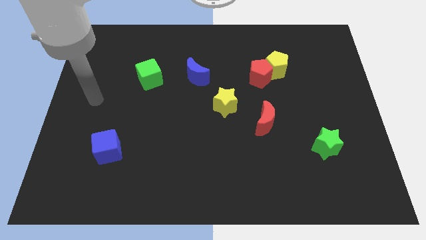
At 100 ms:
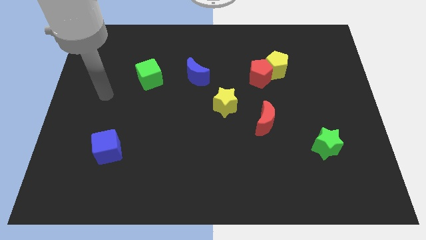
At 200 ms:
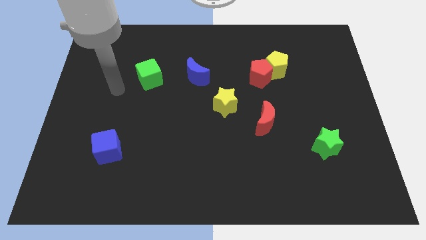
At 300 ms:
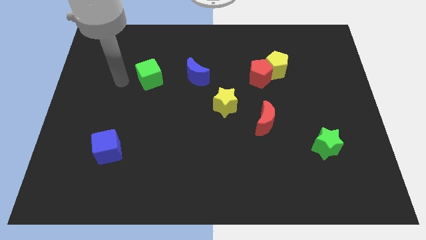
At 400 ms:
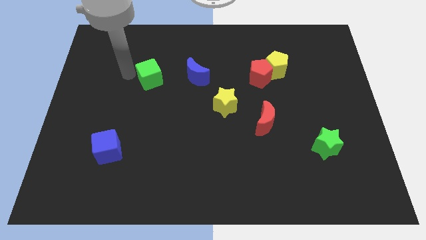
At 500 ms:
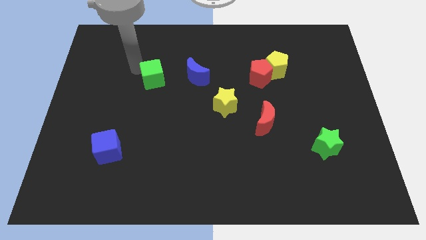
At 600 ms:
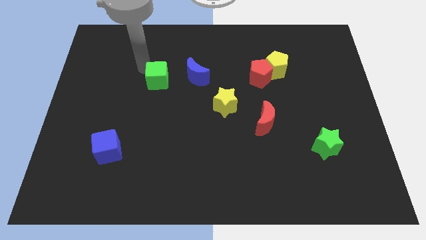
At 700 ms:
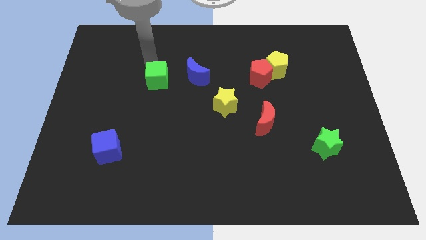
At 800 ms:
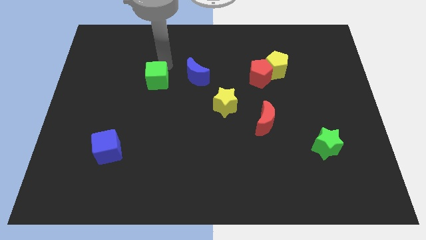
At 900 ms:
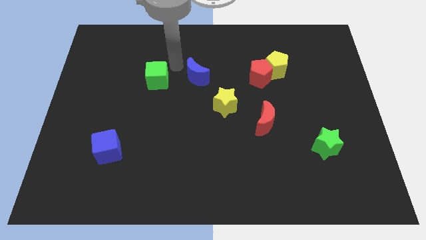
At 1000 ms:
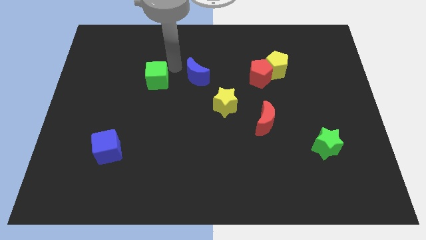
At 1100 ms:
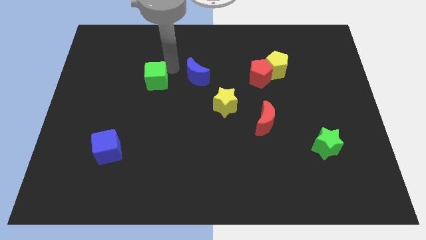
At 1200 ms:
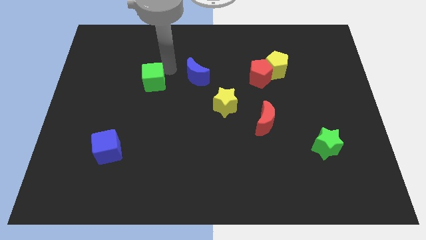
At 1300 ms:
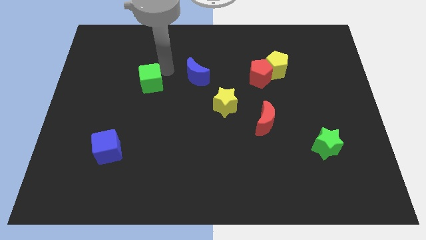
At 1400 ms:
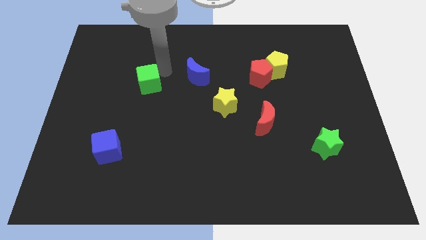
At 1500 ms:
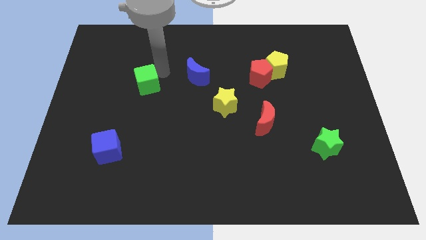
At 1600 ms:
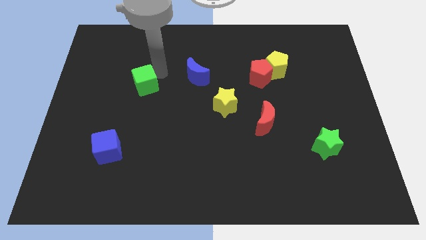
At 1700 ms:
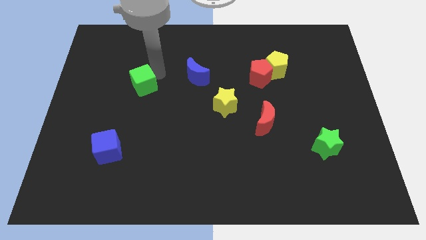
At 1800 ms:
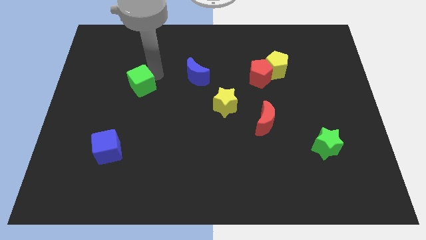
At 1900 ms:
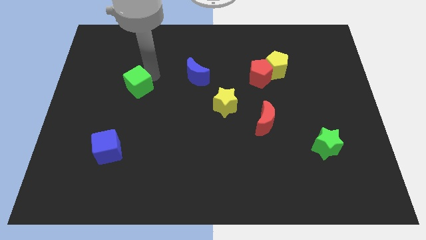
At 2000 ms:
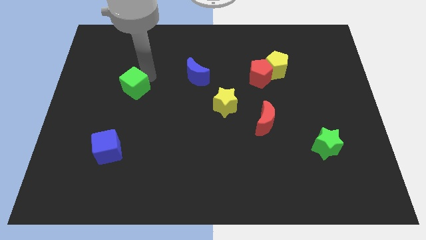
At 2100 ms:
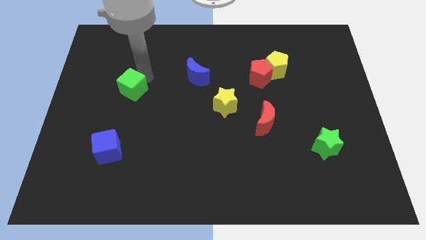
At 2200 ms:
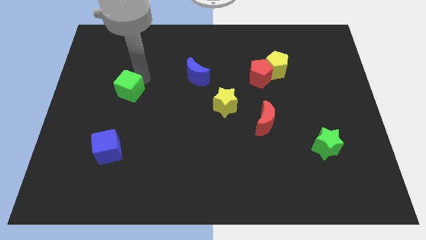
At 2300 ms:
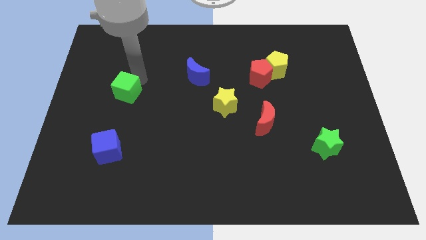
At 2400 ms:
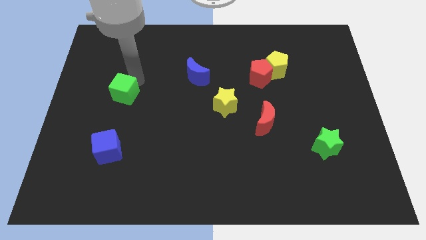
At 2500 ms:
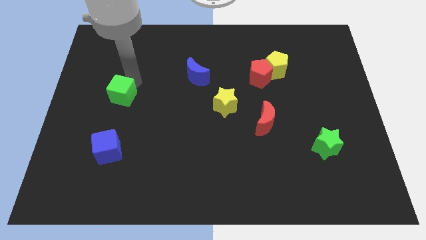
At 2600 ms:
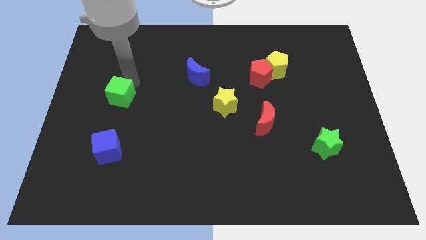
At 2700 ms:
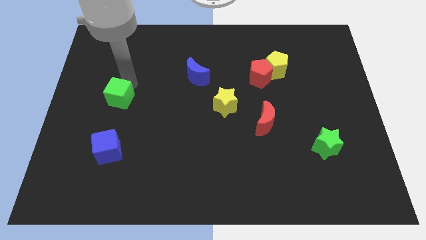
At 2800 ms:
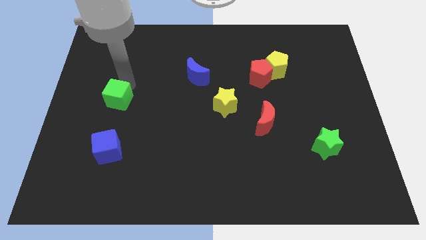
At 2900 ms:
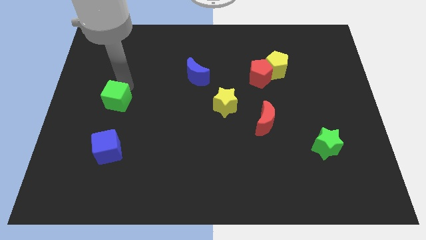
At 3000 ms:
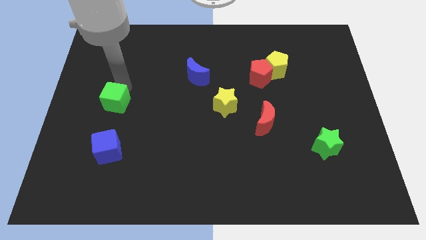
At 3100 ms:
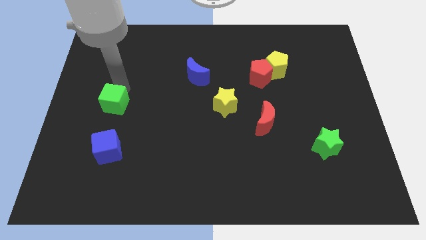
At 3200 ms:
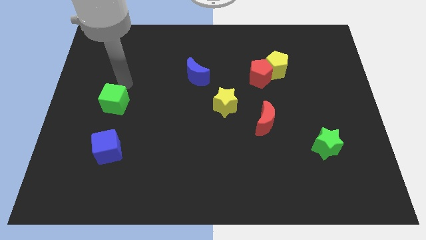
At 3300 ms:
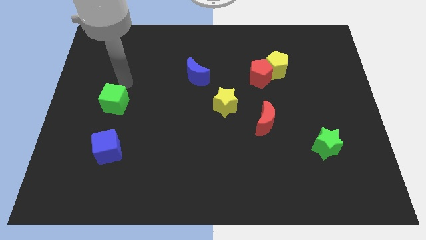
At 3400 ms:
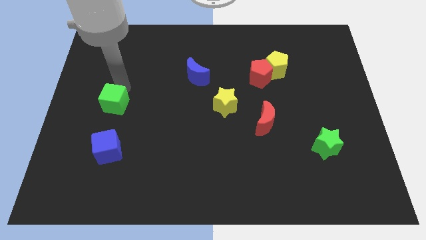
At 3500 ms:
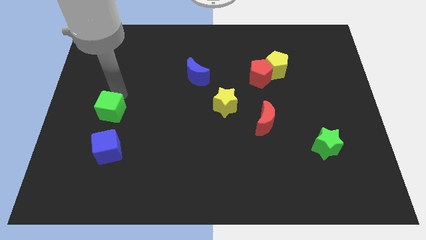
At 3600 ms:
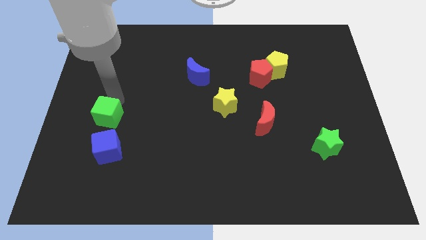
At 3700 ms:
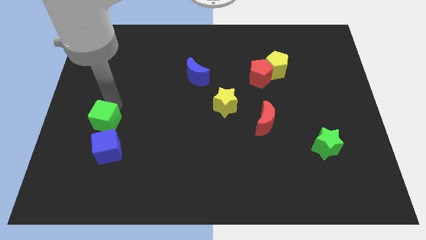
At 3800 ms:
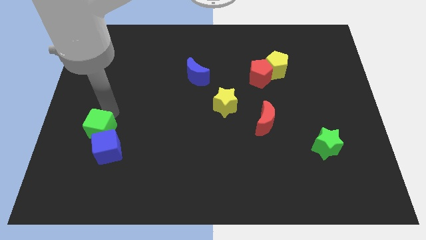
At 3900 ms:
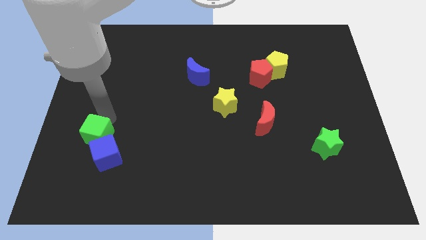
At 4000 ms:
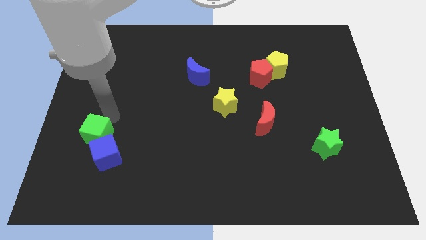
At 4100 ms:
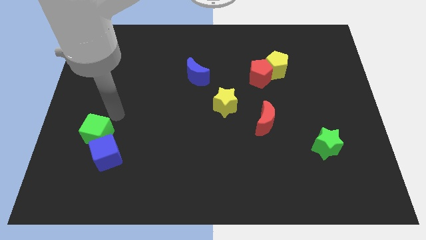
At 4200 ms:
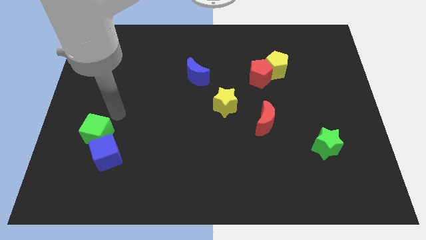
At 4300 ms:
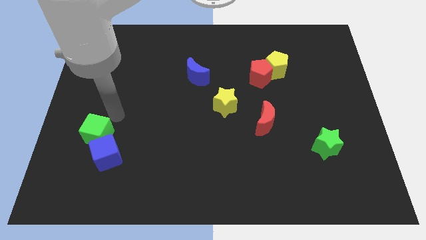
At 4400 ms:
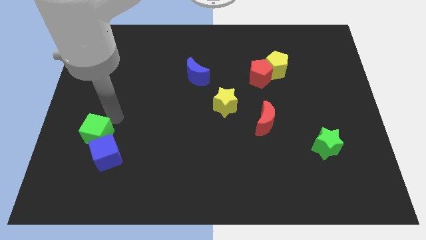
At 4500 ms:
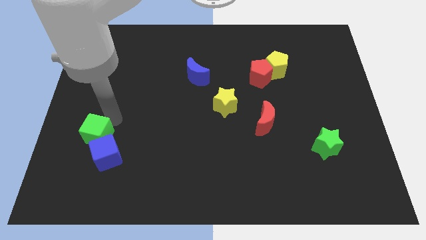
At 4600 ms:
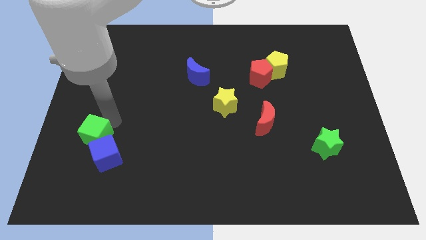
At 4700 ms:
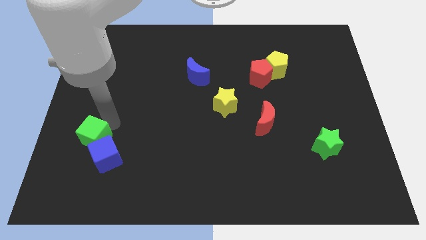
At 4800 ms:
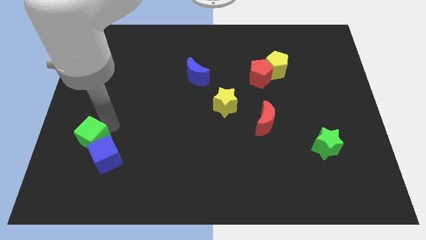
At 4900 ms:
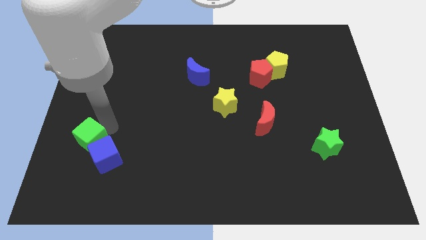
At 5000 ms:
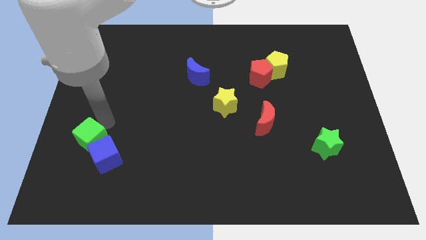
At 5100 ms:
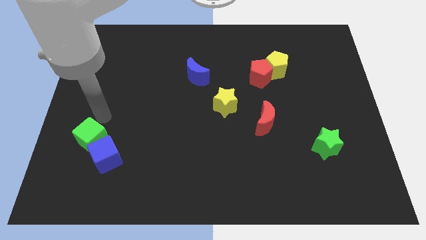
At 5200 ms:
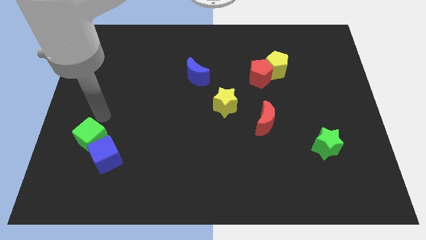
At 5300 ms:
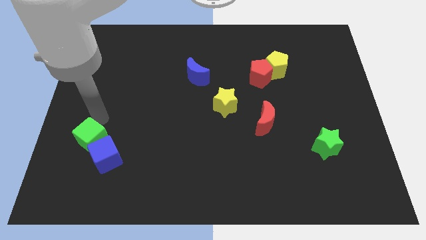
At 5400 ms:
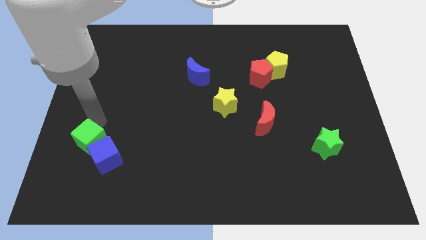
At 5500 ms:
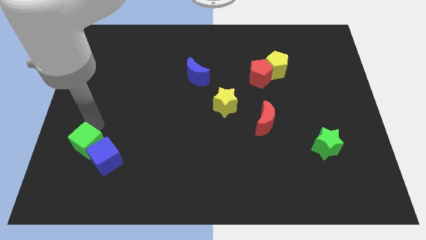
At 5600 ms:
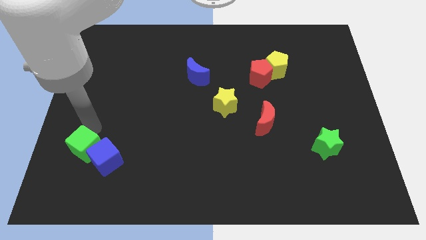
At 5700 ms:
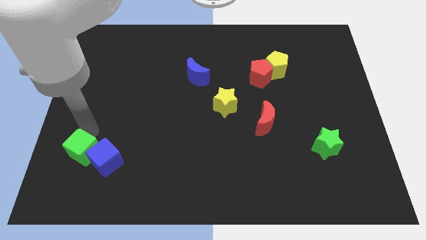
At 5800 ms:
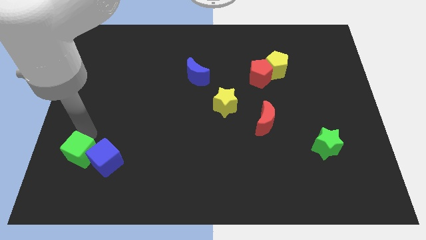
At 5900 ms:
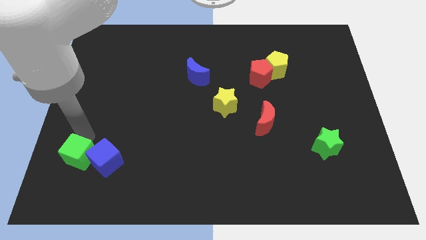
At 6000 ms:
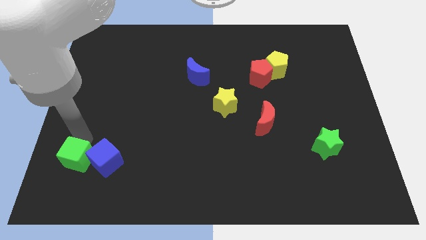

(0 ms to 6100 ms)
move the green cube diagonally down and to the left of the blue cube
